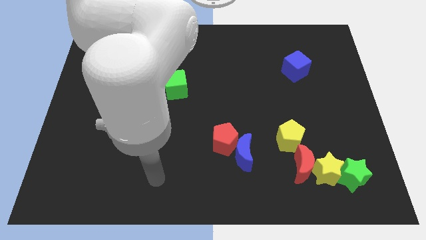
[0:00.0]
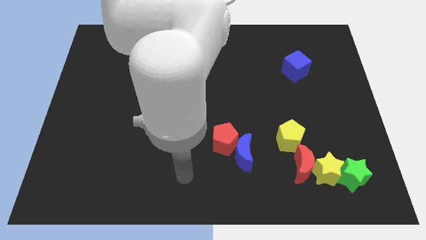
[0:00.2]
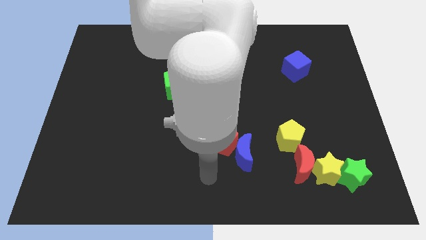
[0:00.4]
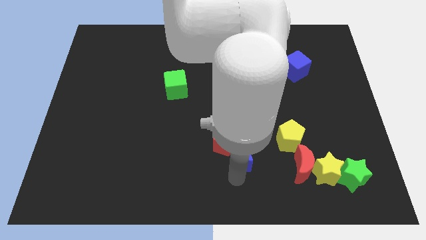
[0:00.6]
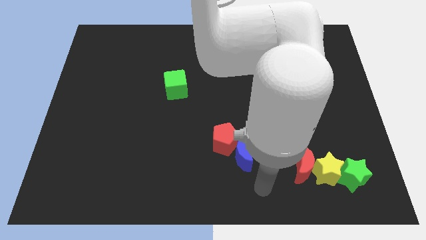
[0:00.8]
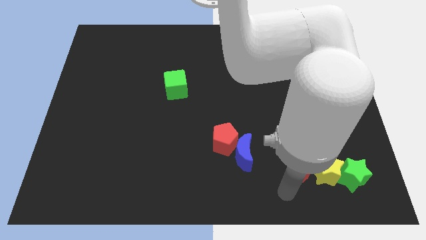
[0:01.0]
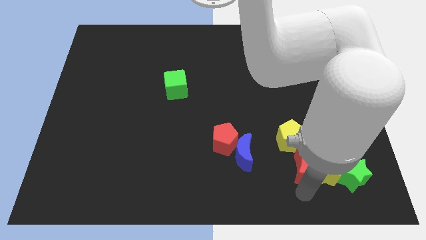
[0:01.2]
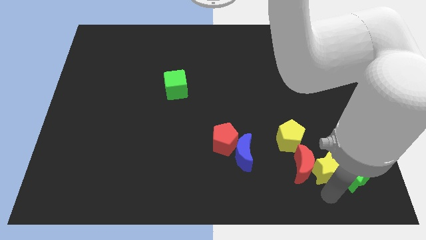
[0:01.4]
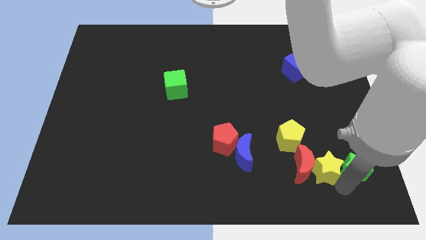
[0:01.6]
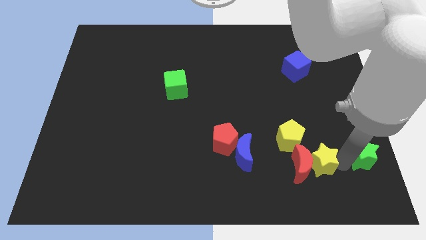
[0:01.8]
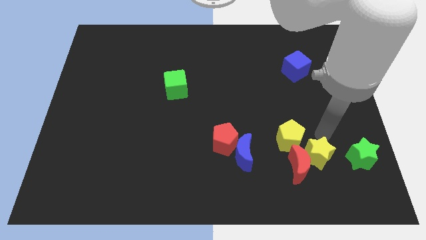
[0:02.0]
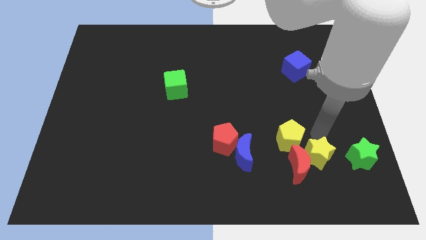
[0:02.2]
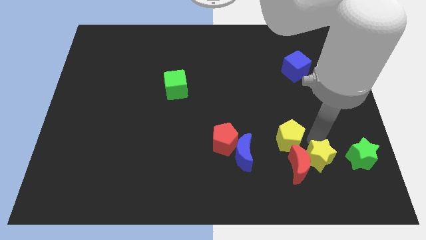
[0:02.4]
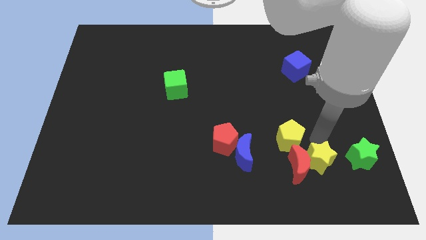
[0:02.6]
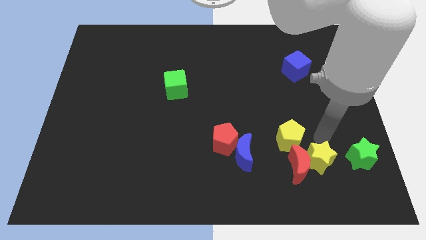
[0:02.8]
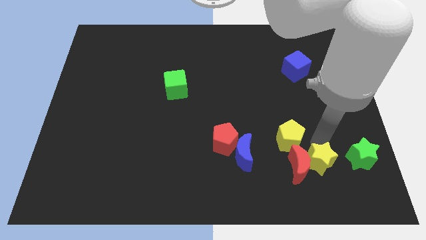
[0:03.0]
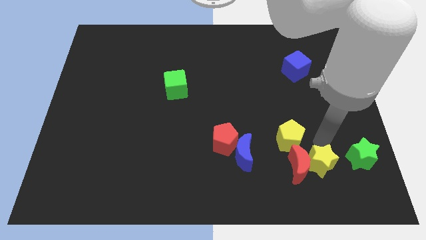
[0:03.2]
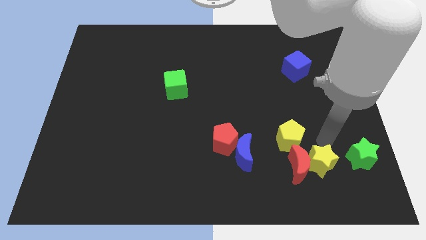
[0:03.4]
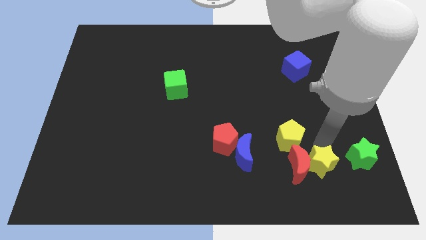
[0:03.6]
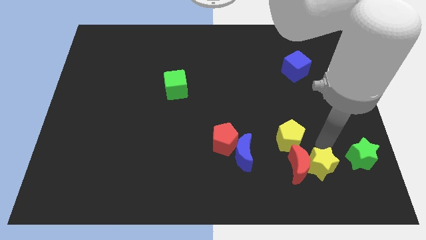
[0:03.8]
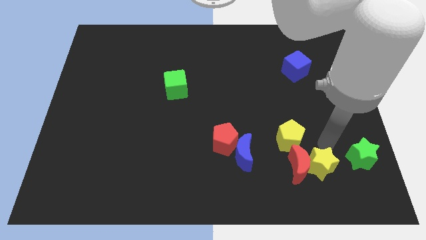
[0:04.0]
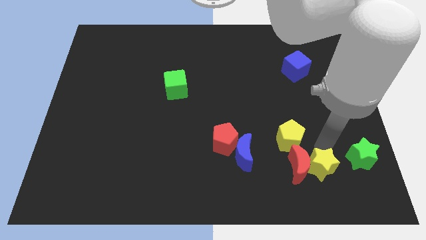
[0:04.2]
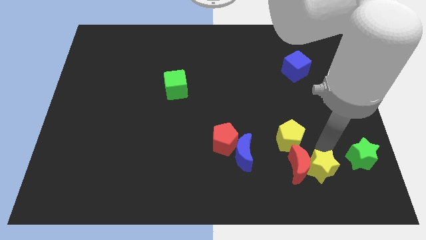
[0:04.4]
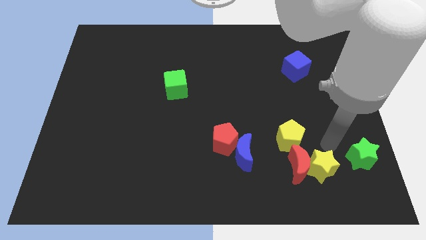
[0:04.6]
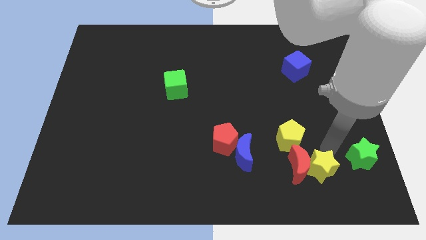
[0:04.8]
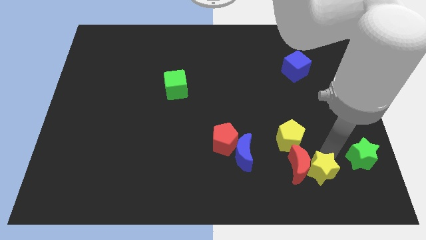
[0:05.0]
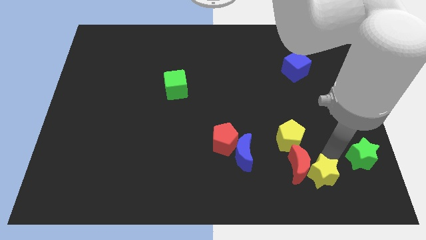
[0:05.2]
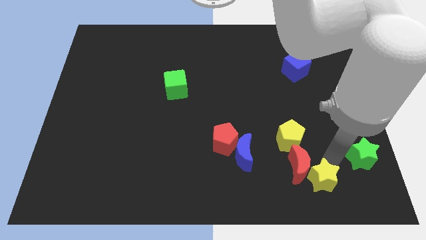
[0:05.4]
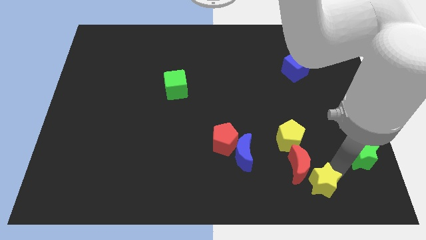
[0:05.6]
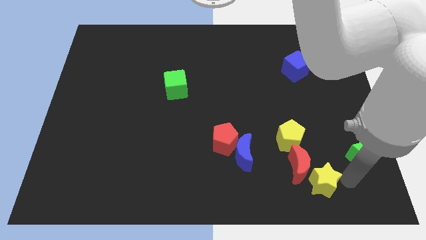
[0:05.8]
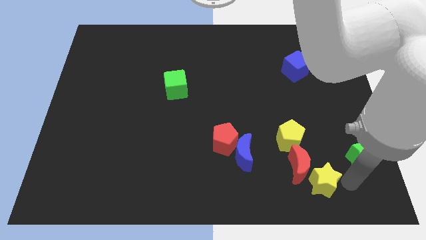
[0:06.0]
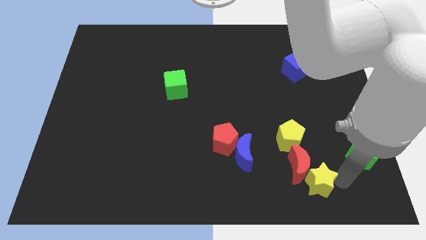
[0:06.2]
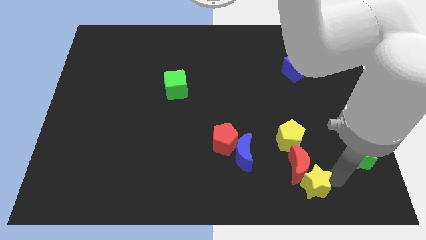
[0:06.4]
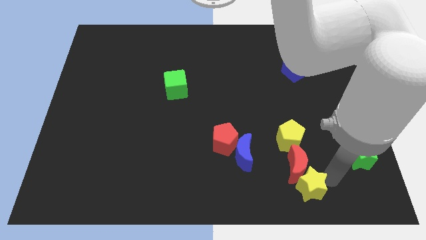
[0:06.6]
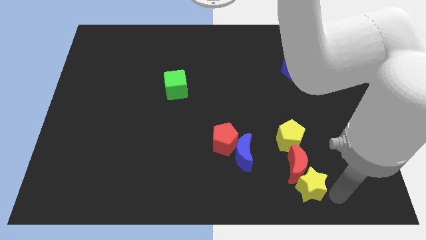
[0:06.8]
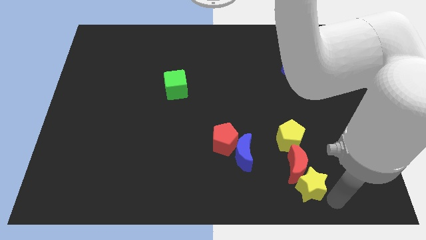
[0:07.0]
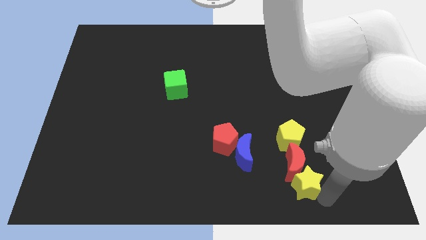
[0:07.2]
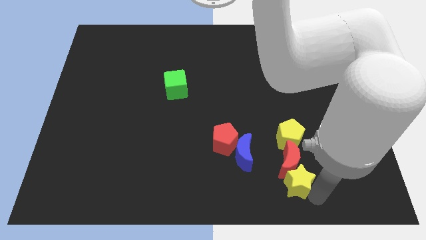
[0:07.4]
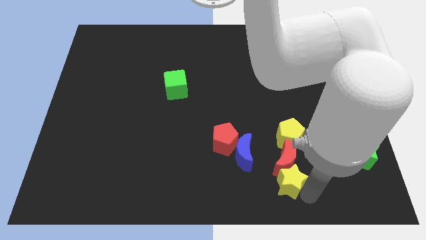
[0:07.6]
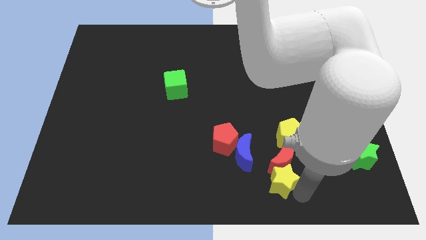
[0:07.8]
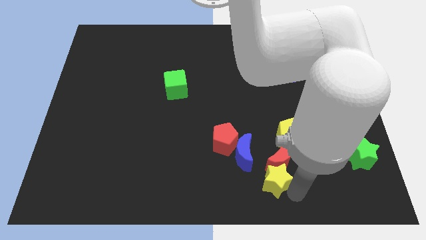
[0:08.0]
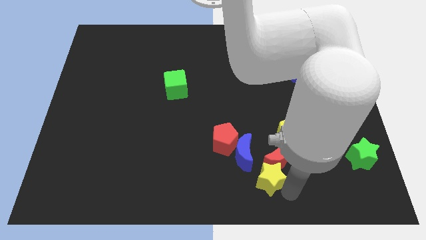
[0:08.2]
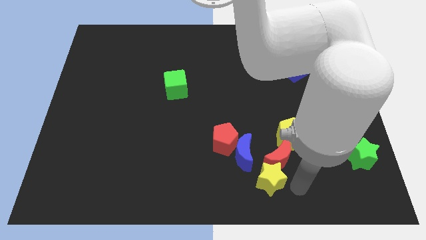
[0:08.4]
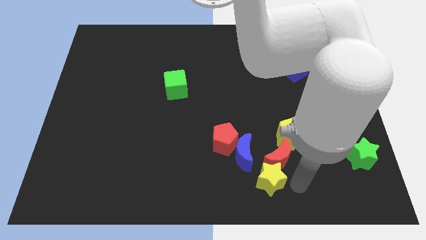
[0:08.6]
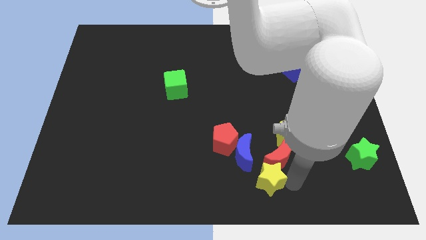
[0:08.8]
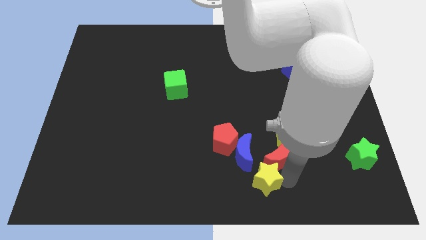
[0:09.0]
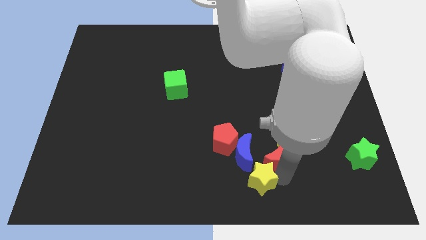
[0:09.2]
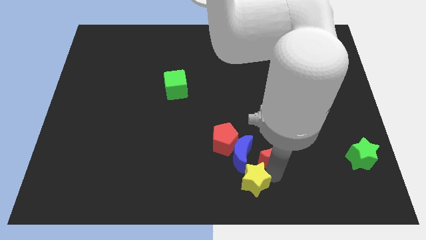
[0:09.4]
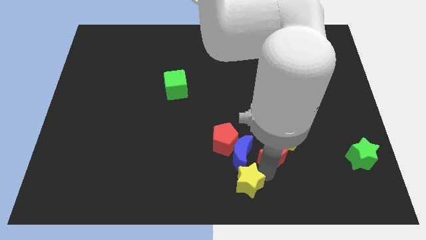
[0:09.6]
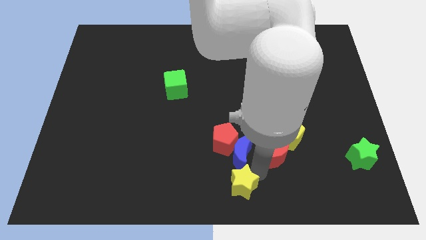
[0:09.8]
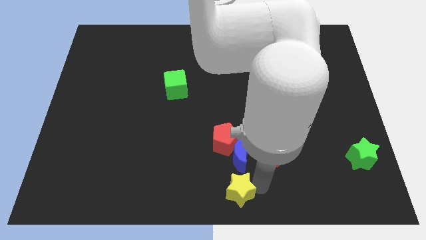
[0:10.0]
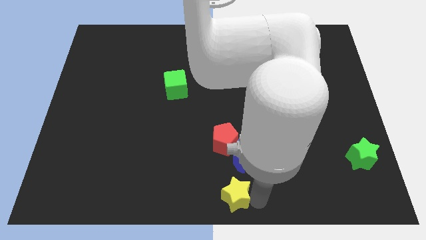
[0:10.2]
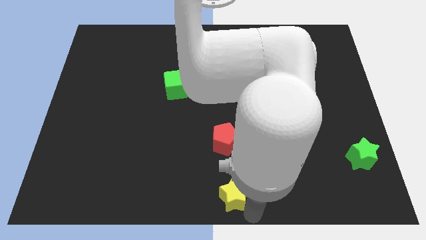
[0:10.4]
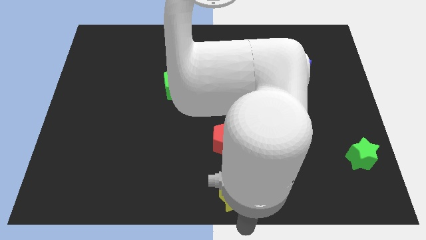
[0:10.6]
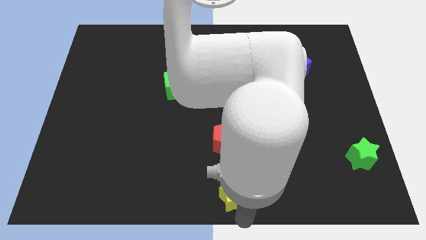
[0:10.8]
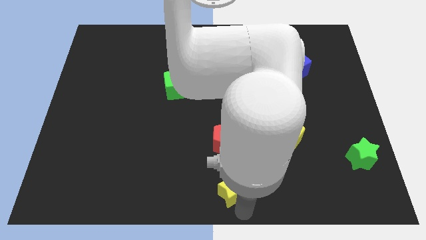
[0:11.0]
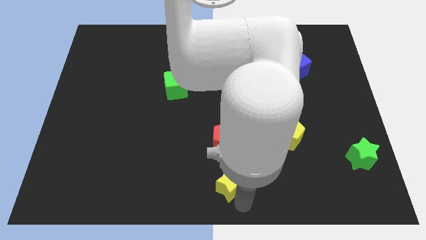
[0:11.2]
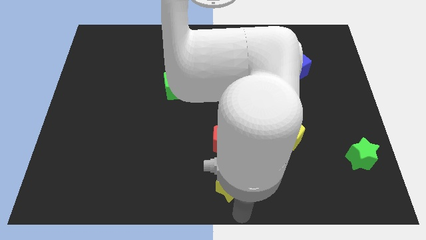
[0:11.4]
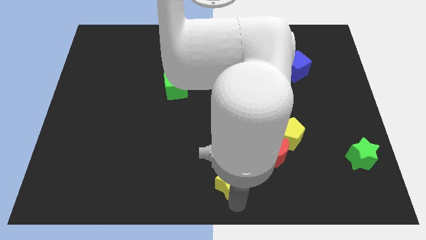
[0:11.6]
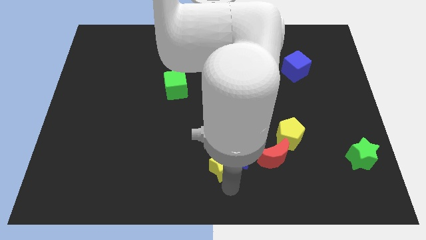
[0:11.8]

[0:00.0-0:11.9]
move the yellow star towards the red pentagon

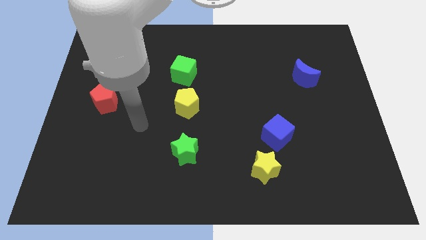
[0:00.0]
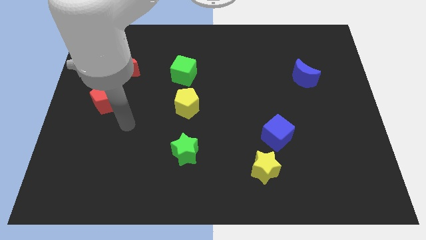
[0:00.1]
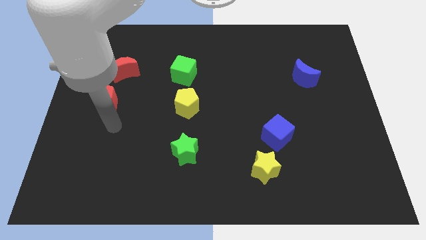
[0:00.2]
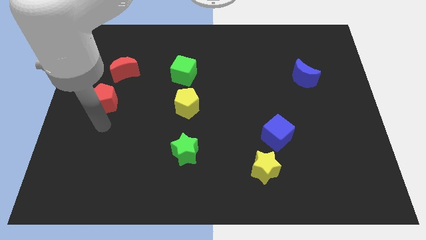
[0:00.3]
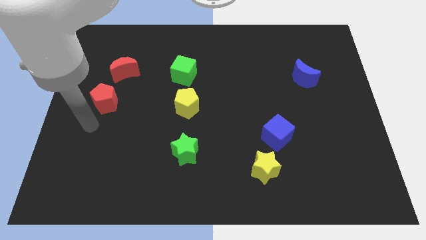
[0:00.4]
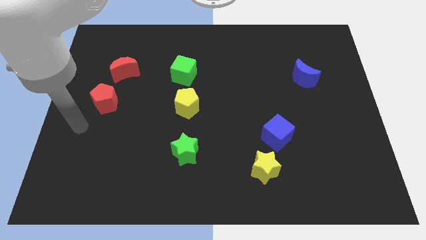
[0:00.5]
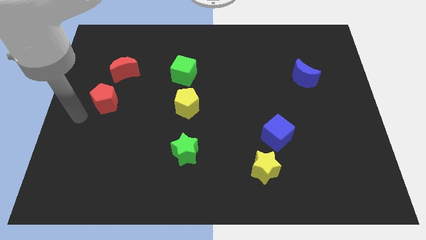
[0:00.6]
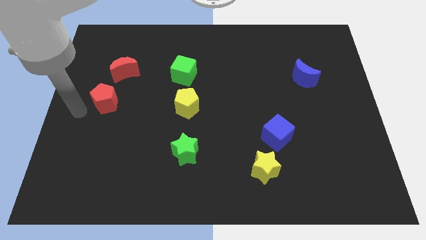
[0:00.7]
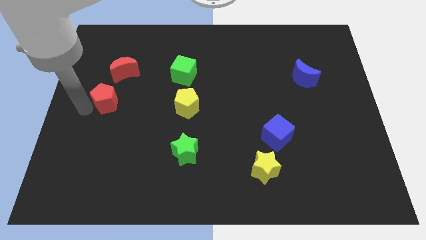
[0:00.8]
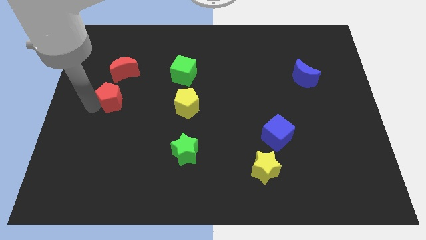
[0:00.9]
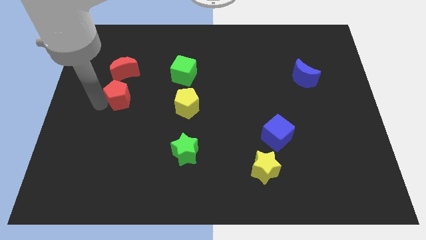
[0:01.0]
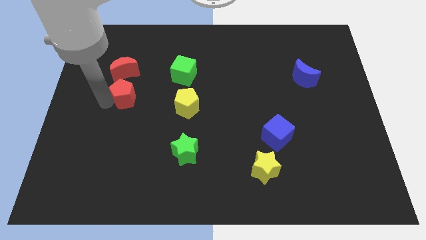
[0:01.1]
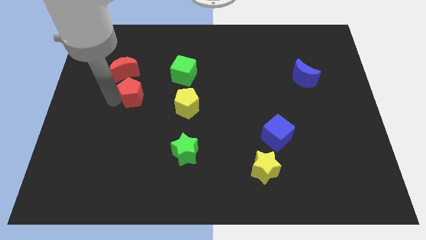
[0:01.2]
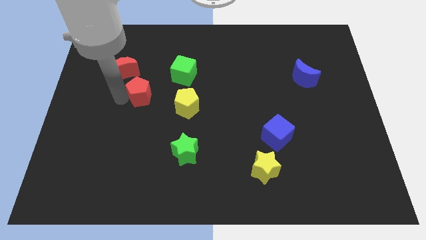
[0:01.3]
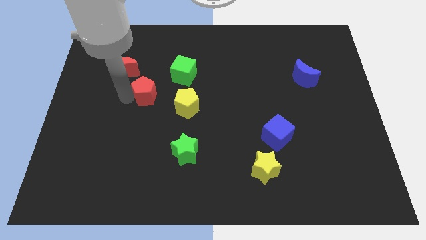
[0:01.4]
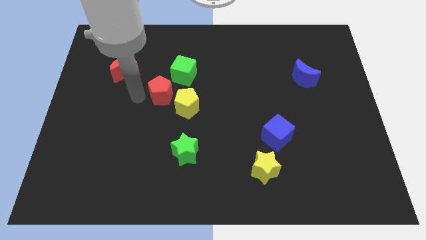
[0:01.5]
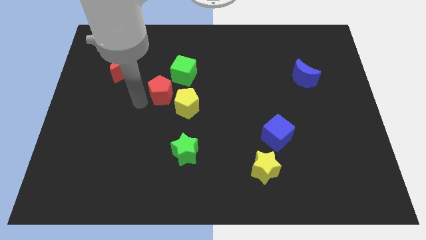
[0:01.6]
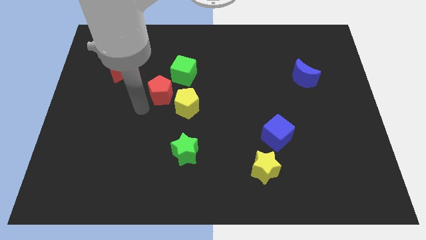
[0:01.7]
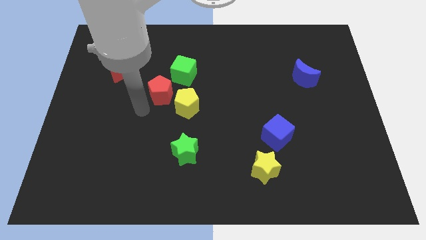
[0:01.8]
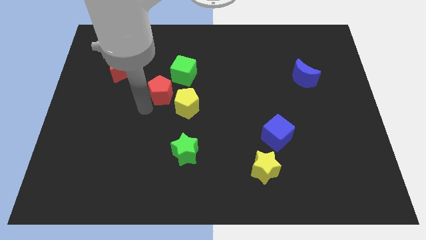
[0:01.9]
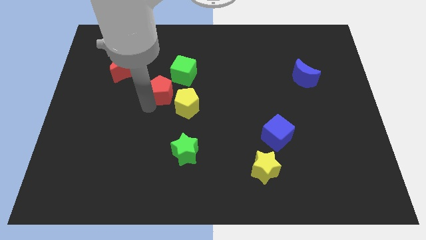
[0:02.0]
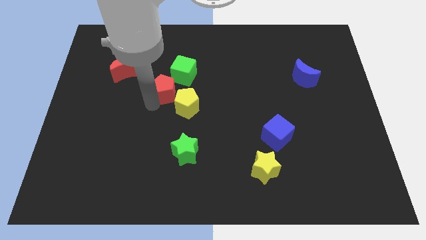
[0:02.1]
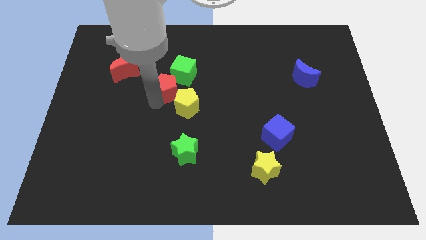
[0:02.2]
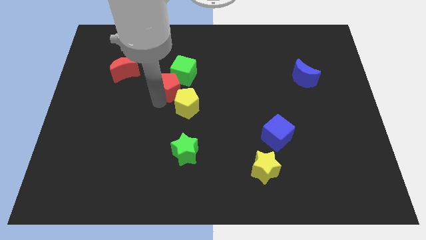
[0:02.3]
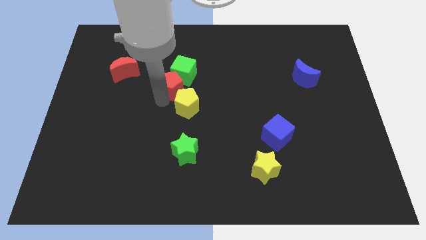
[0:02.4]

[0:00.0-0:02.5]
slide the red pentagon close to the green cube
